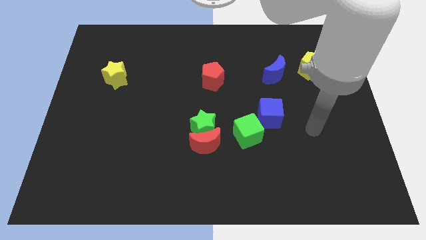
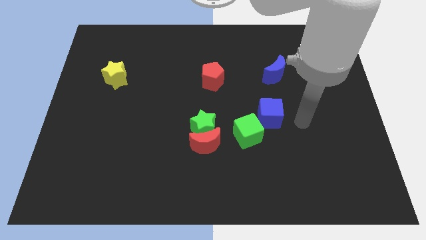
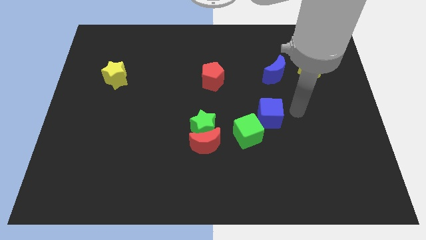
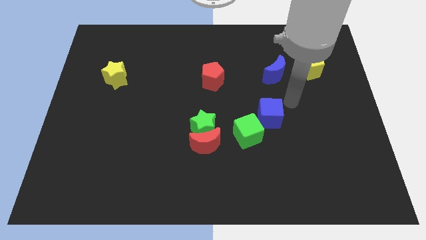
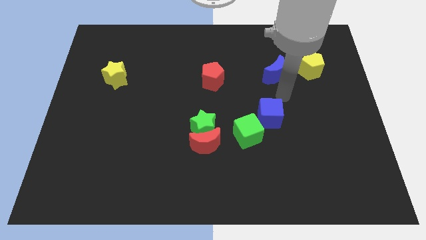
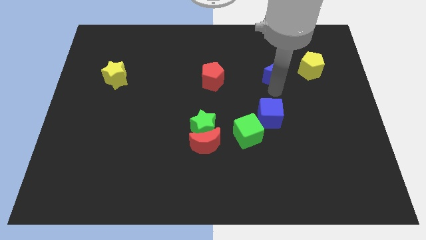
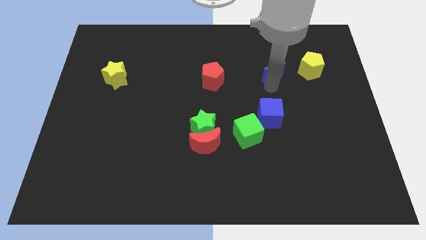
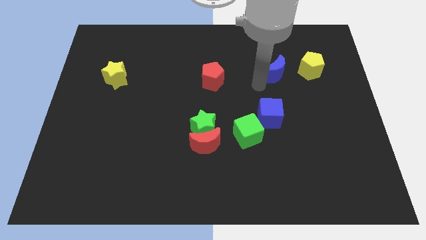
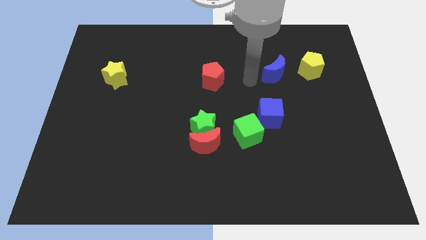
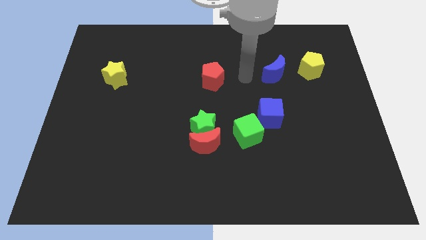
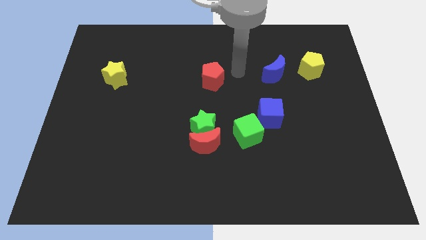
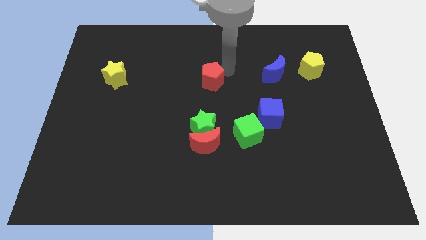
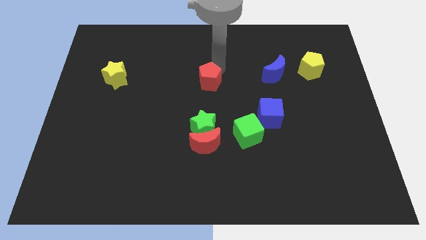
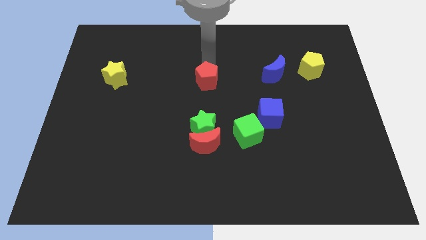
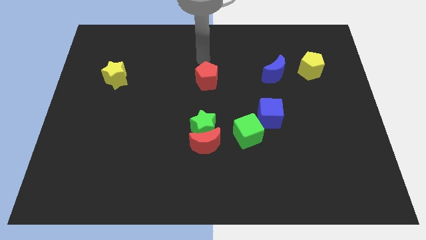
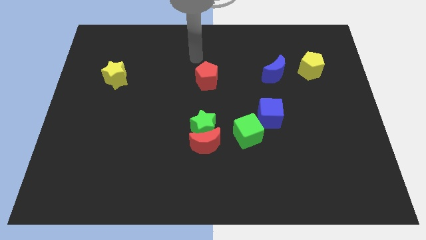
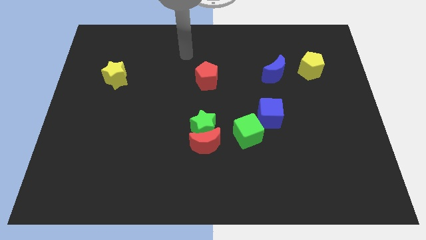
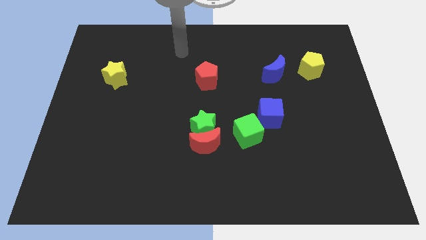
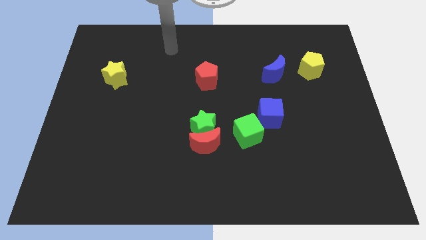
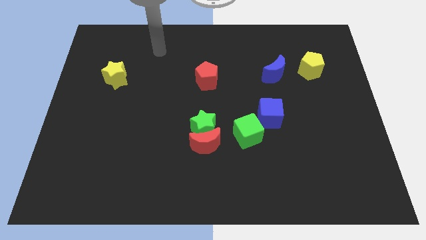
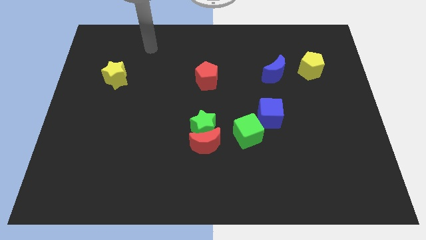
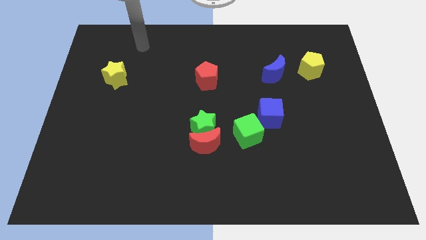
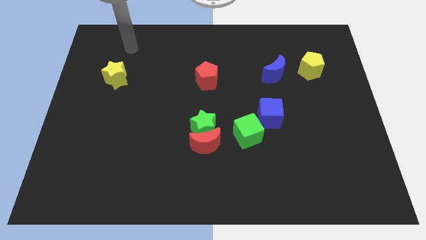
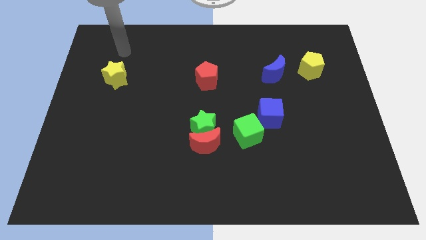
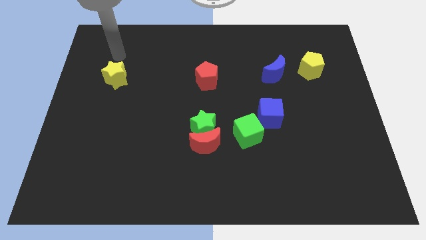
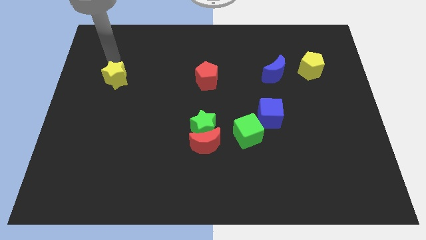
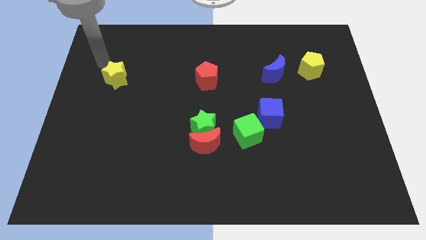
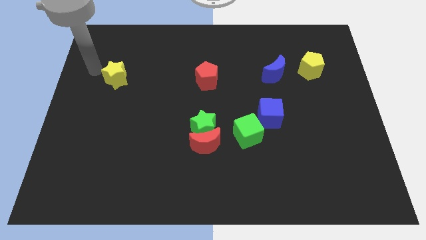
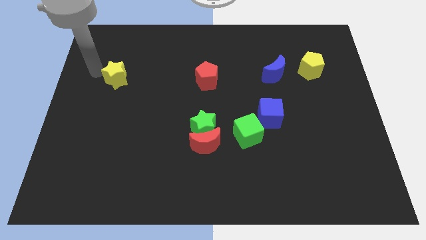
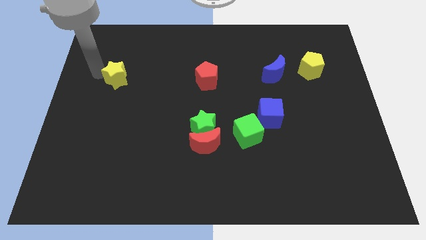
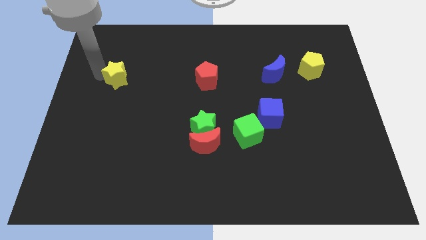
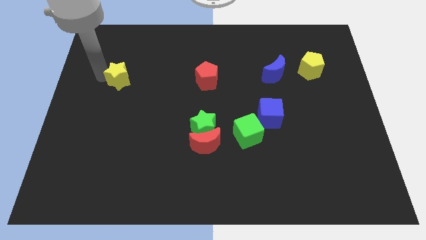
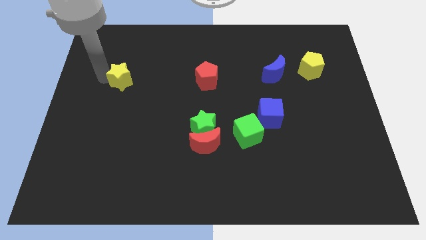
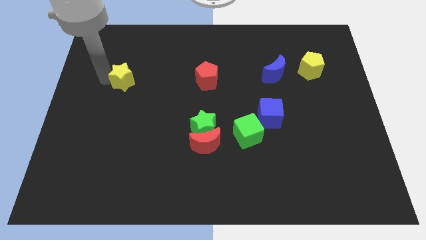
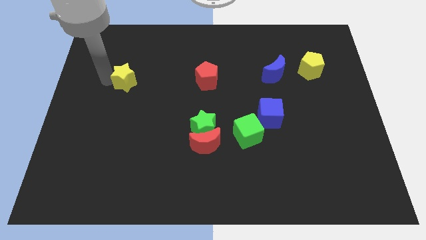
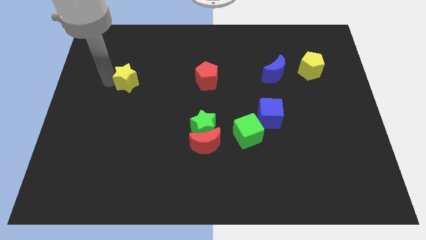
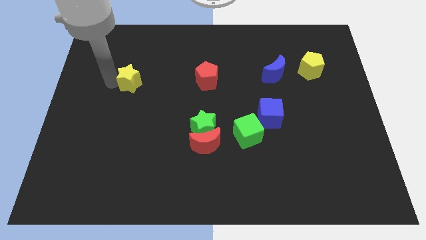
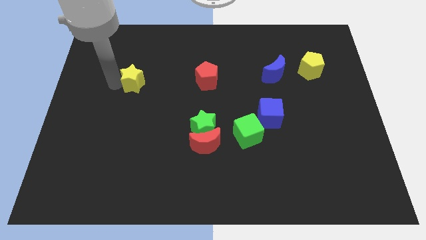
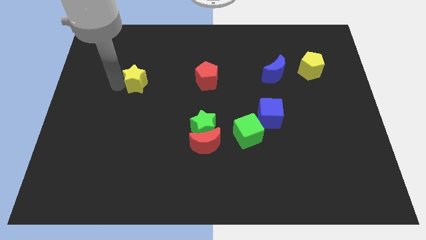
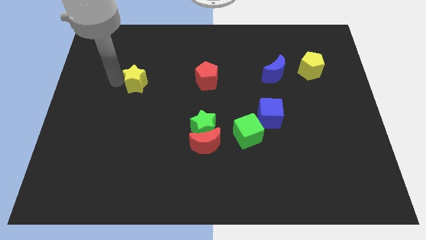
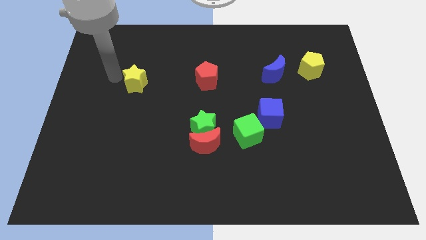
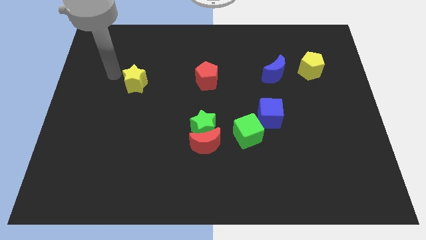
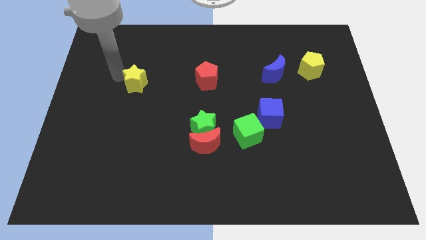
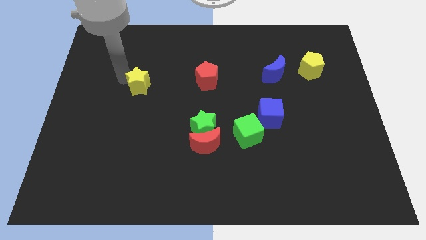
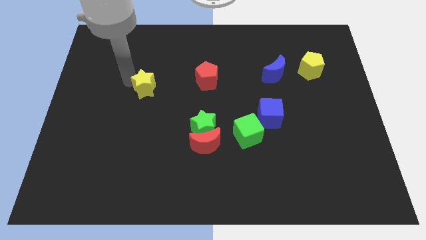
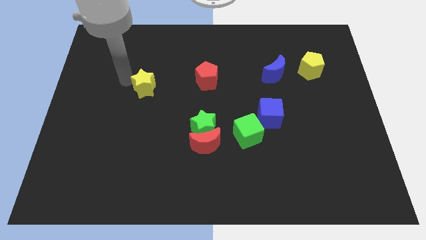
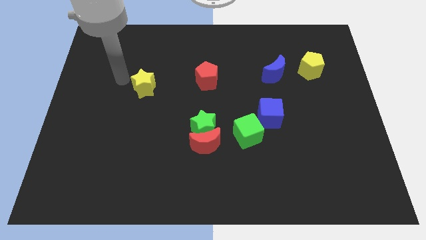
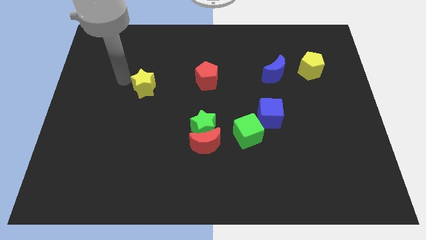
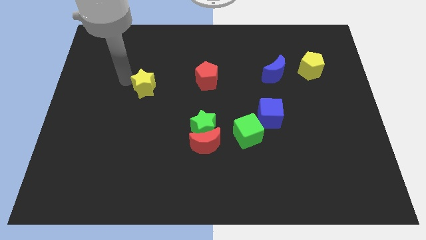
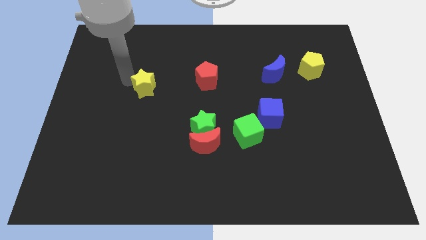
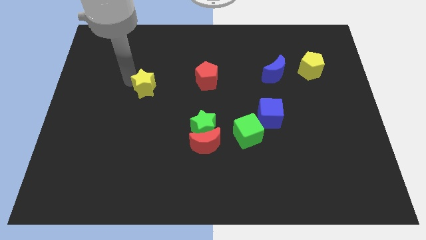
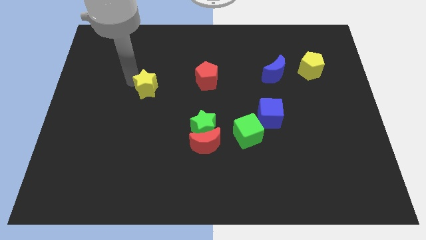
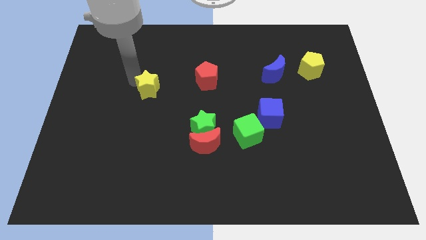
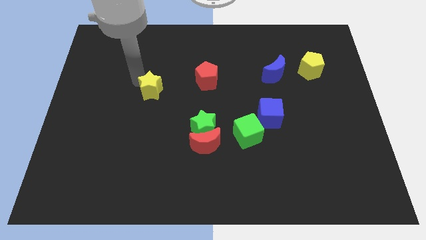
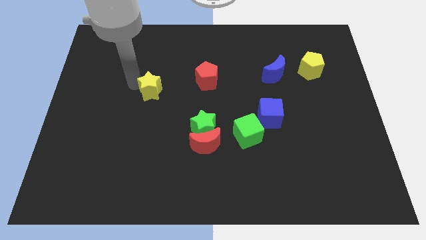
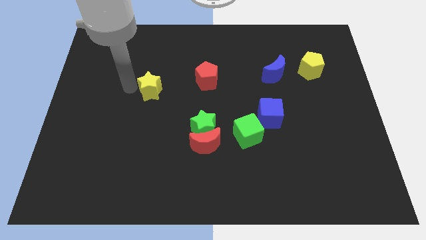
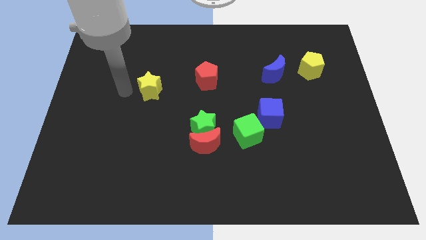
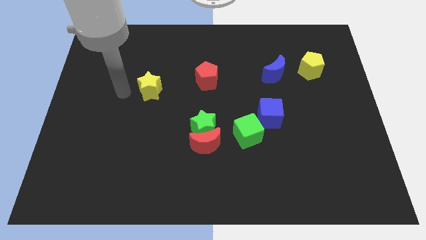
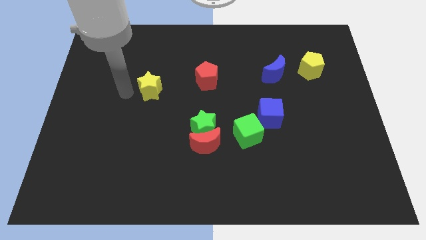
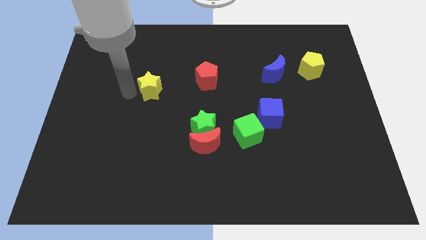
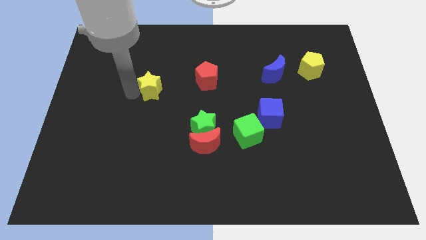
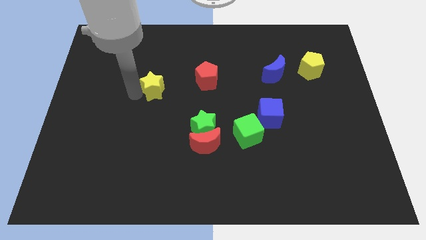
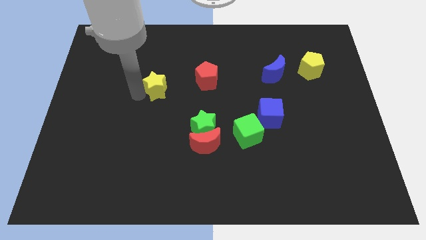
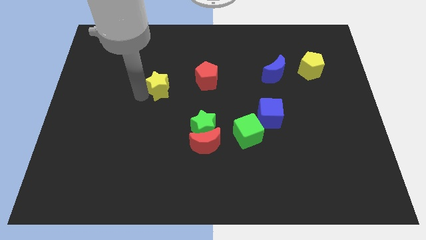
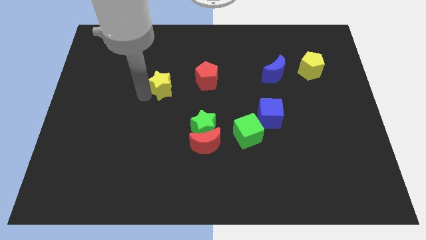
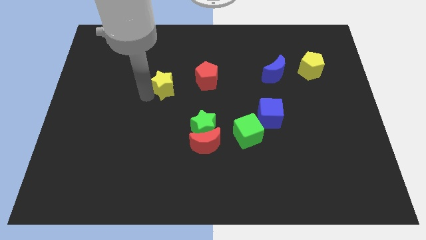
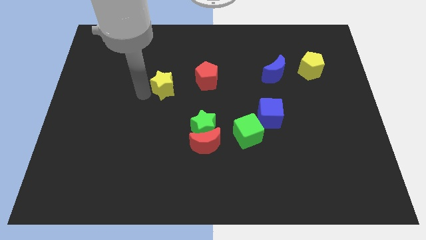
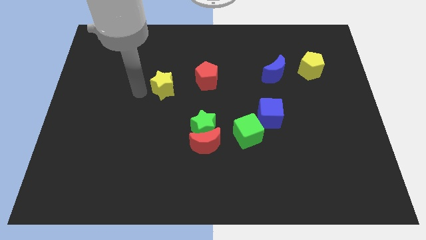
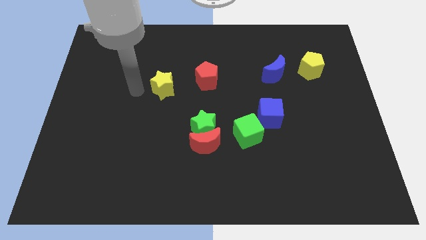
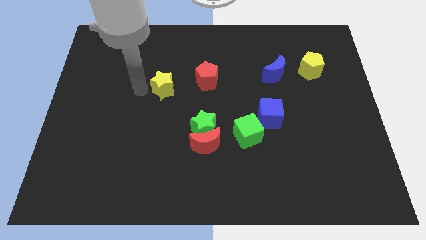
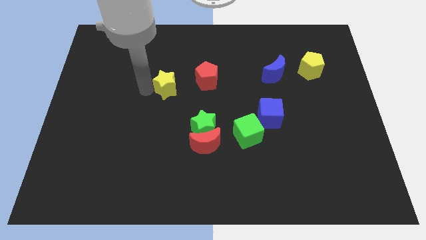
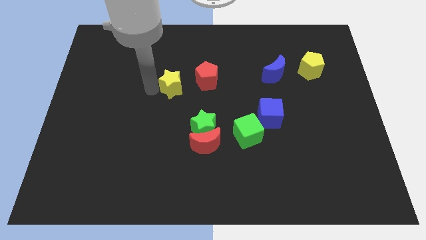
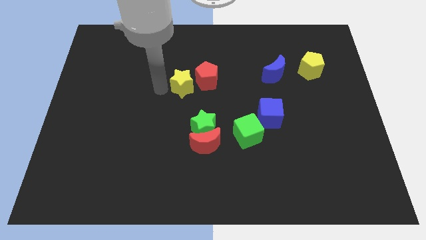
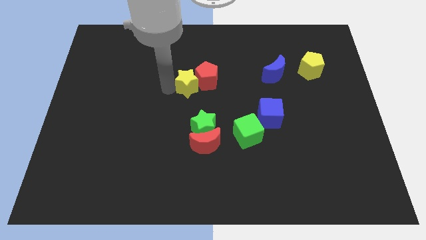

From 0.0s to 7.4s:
put the yellow star towards the red pentagon
